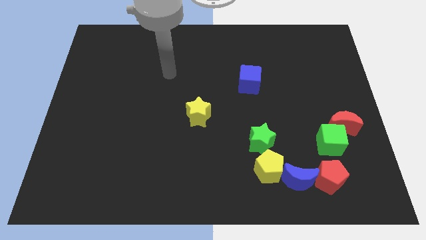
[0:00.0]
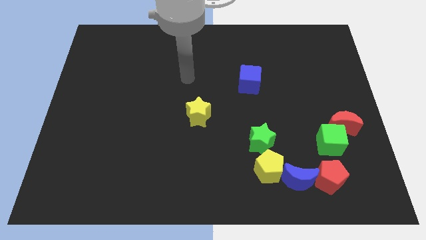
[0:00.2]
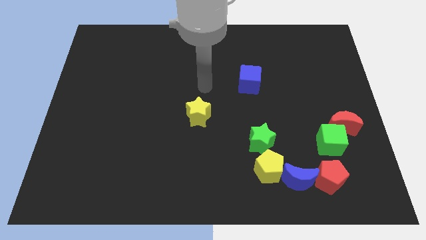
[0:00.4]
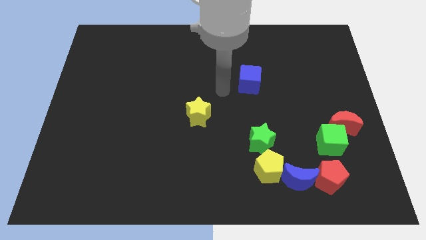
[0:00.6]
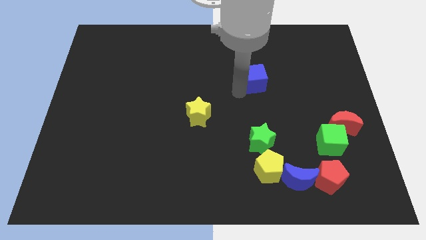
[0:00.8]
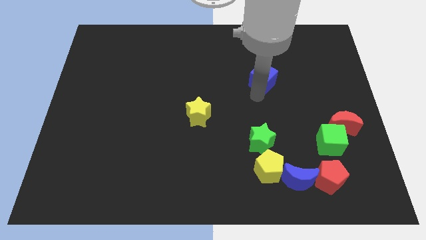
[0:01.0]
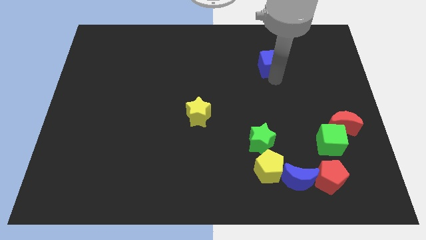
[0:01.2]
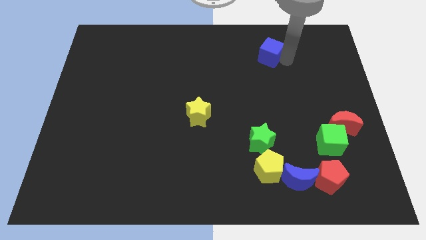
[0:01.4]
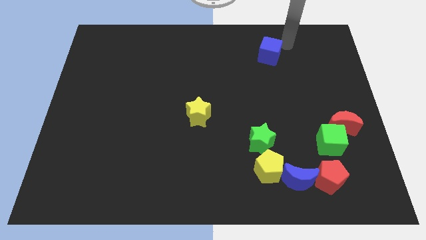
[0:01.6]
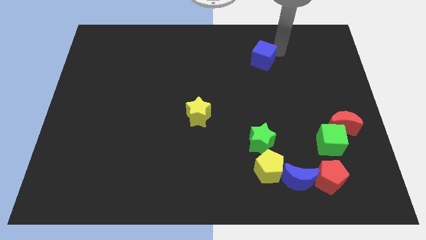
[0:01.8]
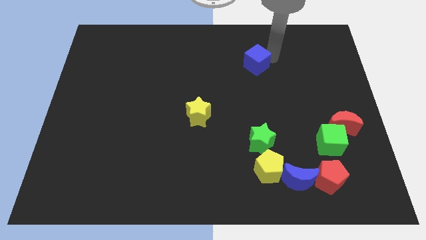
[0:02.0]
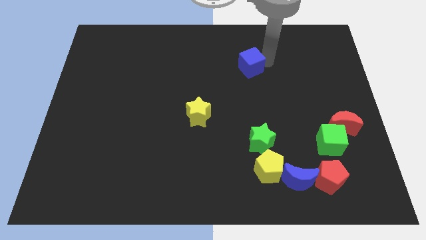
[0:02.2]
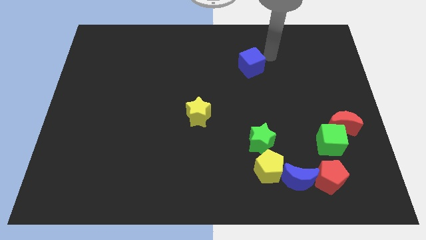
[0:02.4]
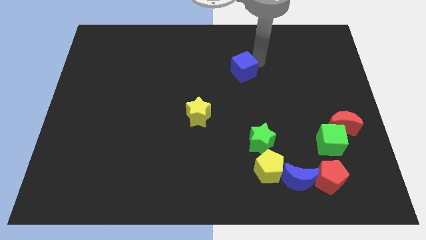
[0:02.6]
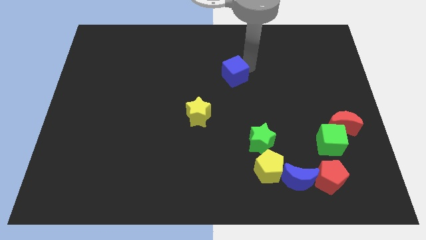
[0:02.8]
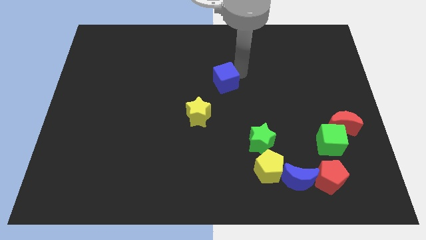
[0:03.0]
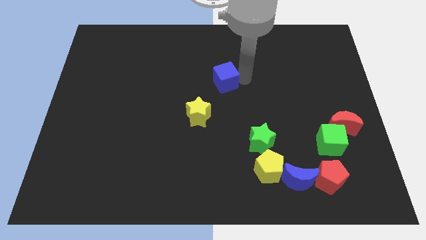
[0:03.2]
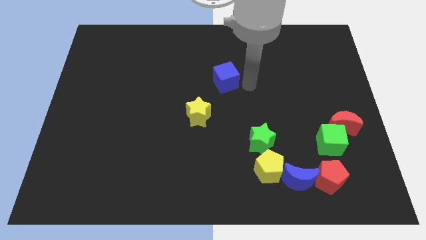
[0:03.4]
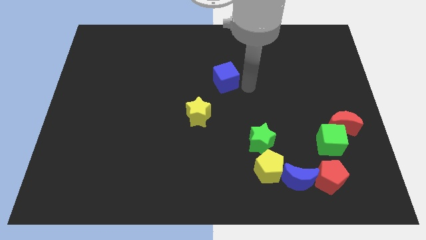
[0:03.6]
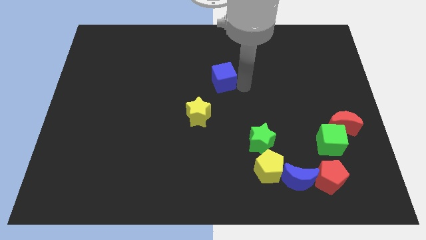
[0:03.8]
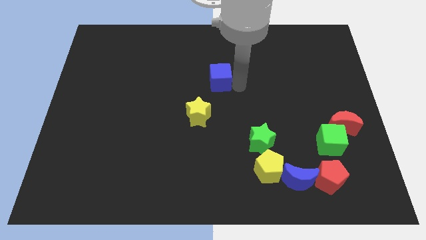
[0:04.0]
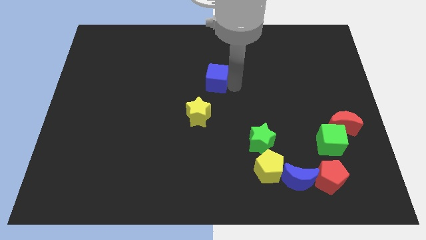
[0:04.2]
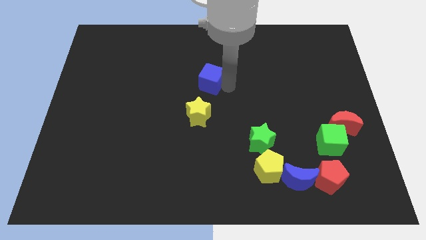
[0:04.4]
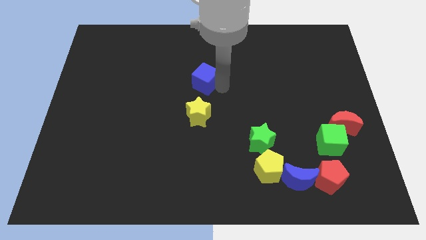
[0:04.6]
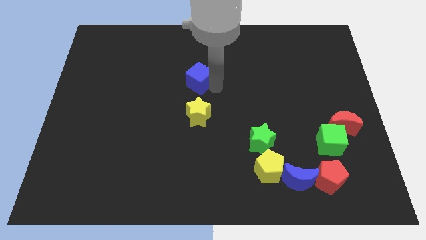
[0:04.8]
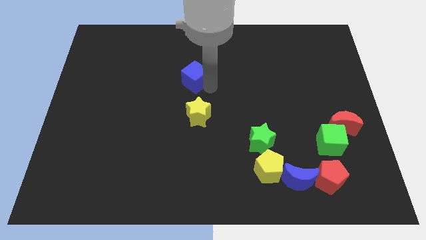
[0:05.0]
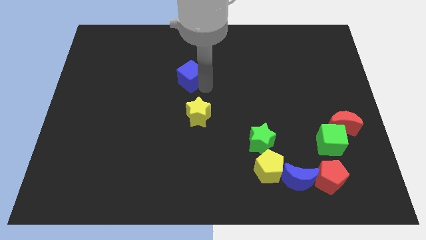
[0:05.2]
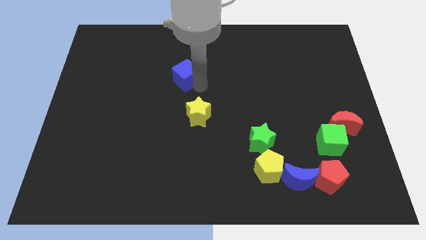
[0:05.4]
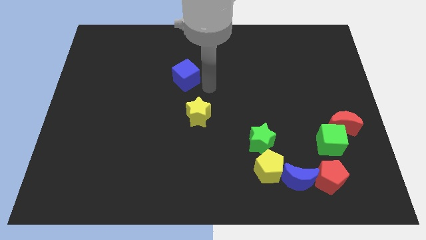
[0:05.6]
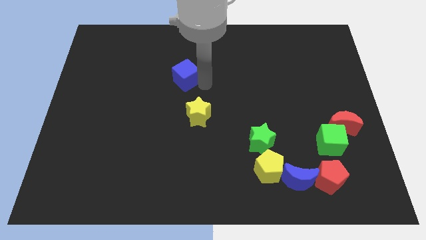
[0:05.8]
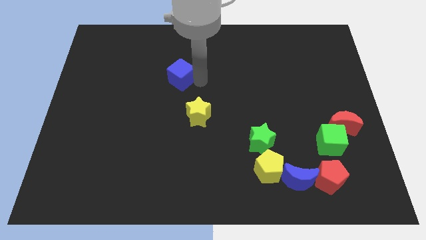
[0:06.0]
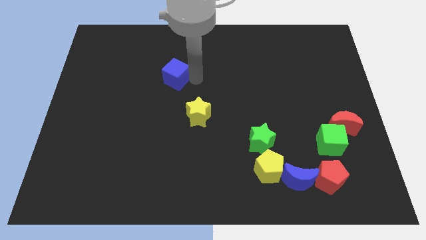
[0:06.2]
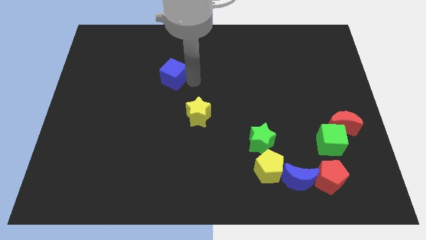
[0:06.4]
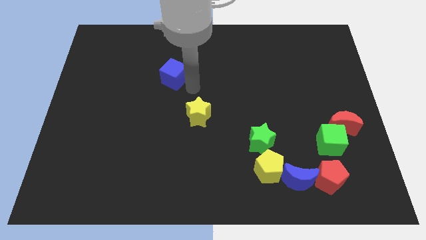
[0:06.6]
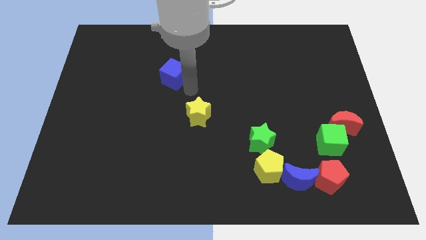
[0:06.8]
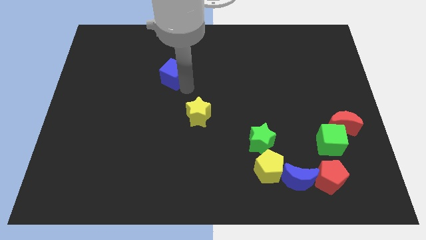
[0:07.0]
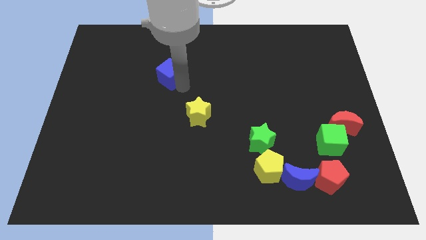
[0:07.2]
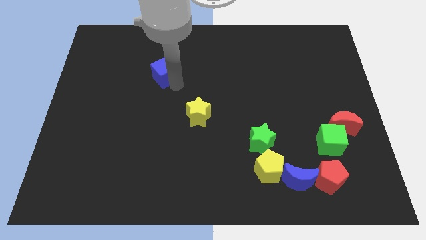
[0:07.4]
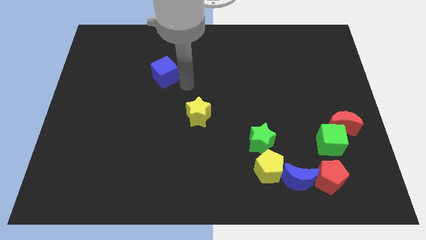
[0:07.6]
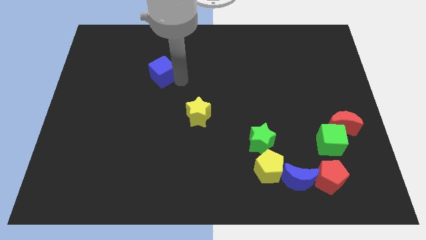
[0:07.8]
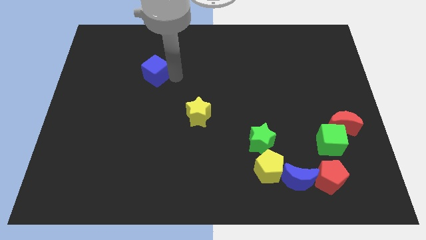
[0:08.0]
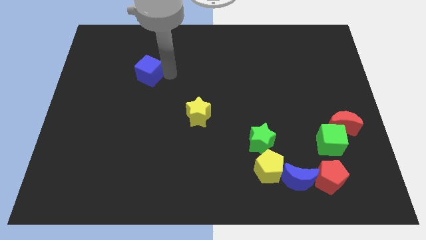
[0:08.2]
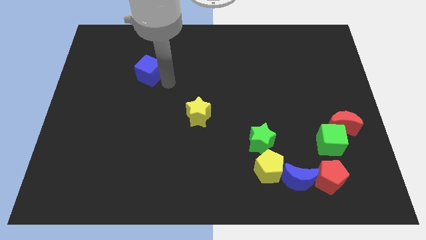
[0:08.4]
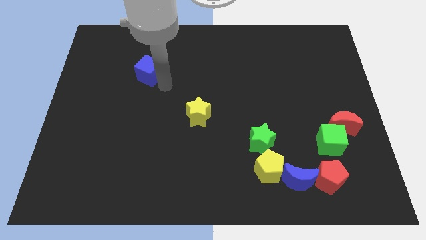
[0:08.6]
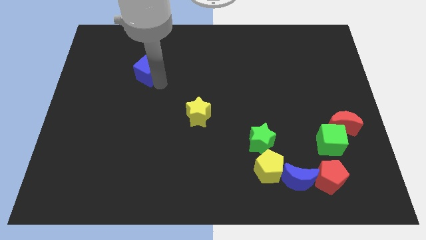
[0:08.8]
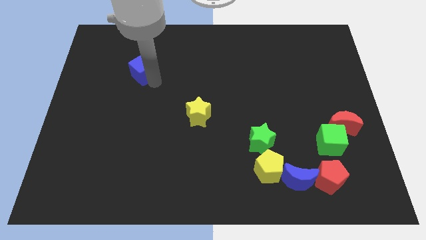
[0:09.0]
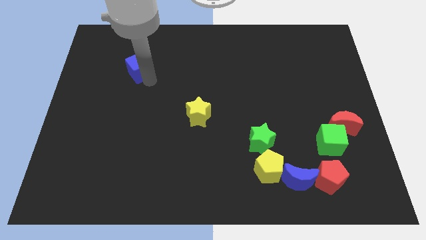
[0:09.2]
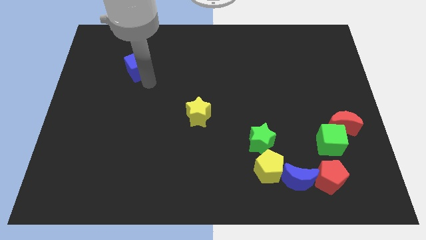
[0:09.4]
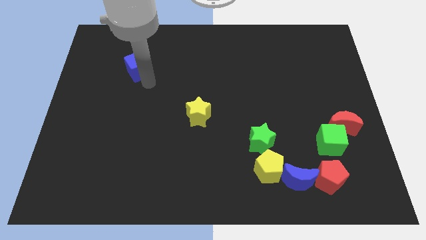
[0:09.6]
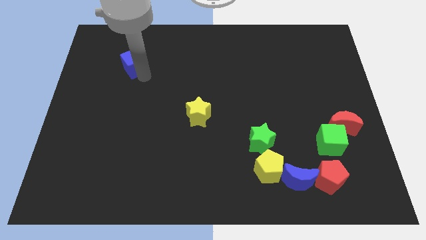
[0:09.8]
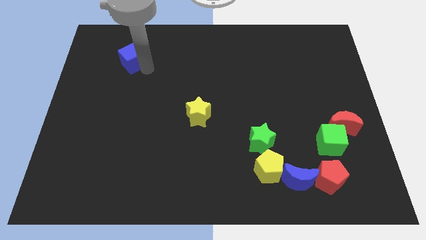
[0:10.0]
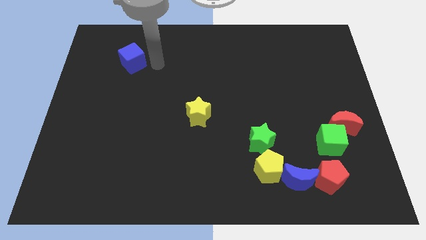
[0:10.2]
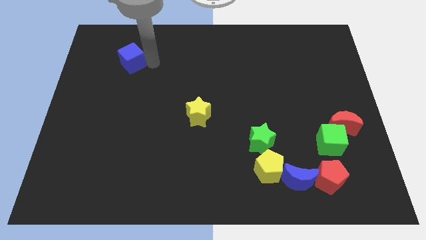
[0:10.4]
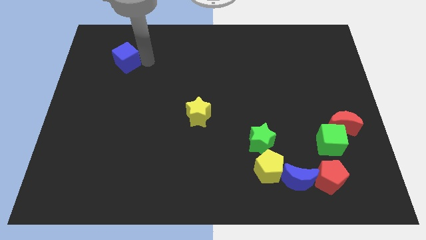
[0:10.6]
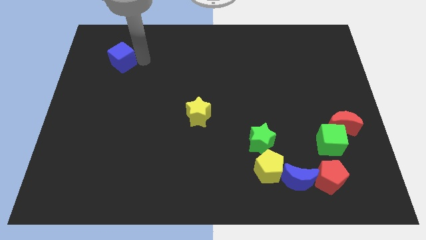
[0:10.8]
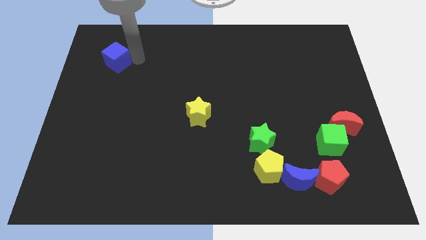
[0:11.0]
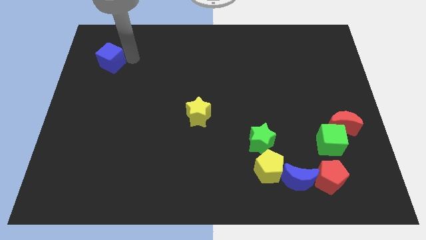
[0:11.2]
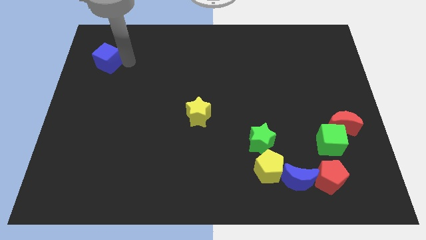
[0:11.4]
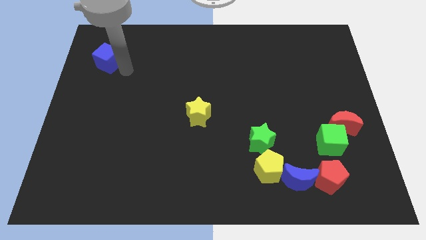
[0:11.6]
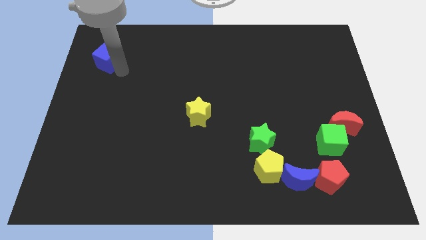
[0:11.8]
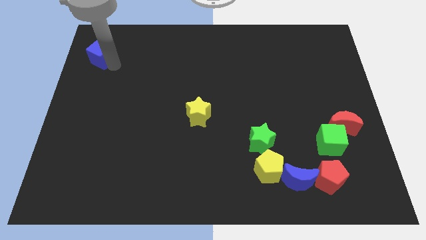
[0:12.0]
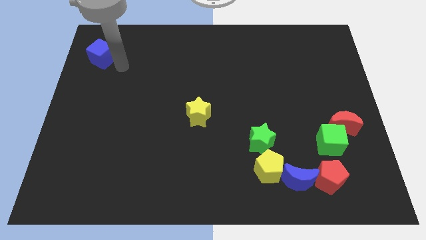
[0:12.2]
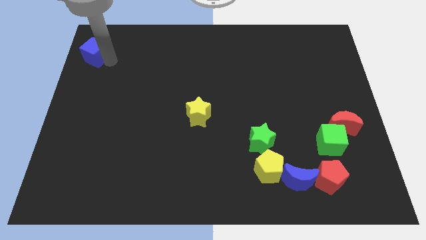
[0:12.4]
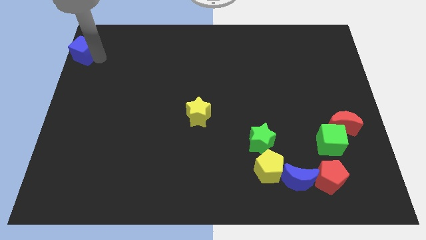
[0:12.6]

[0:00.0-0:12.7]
put the blue cube to the top left corner
